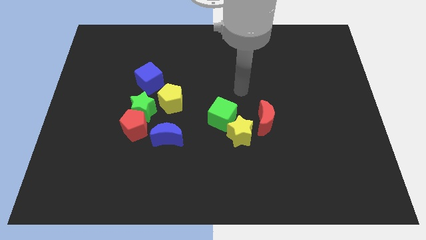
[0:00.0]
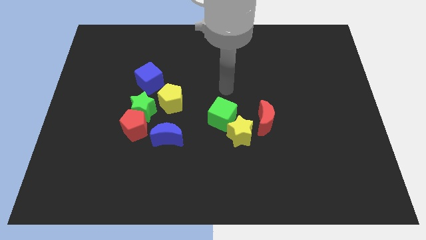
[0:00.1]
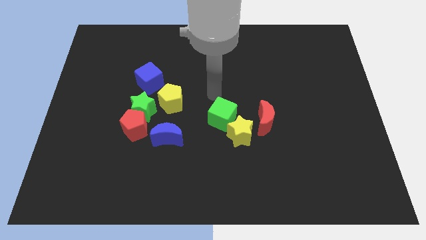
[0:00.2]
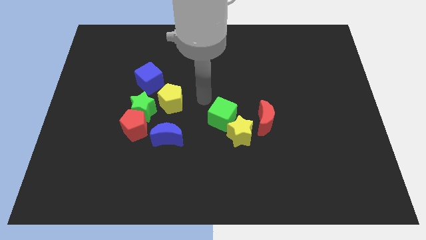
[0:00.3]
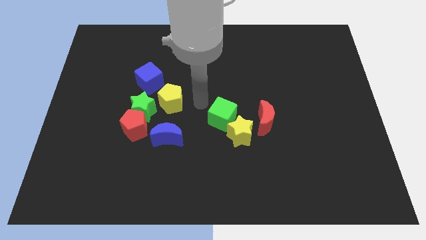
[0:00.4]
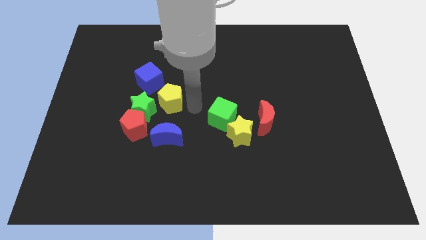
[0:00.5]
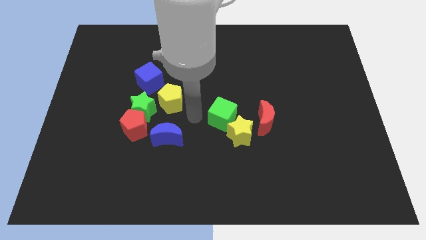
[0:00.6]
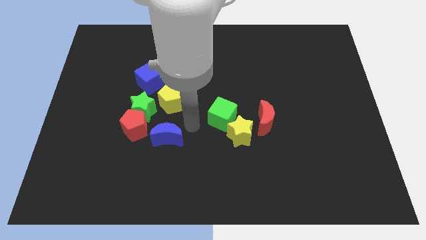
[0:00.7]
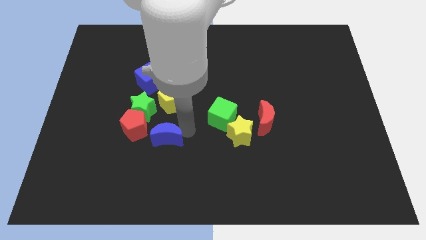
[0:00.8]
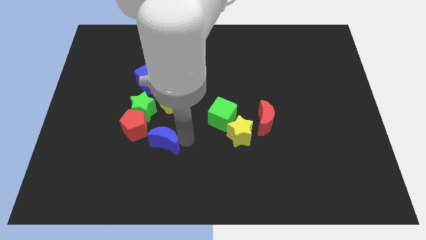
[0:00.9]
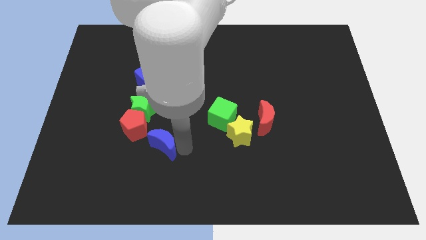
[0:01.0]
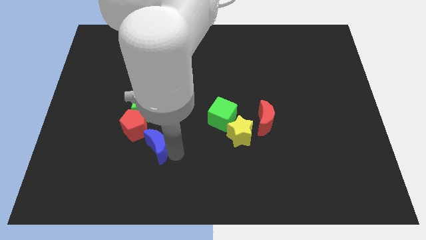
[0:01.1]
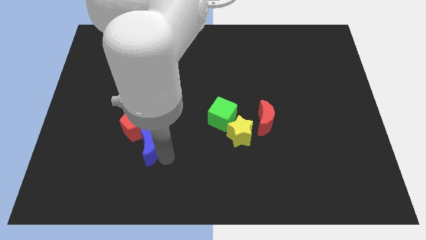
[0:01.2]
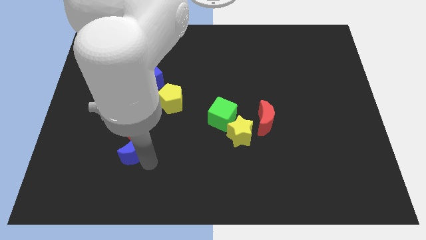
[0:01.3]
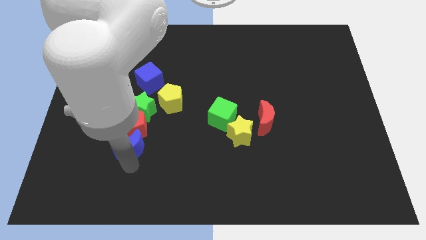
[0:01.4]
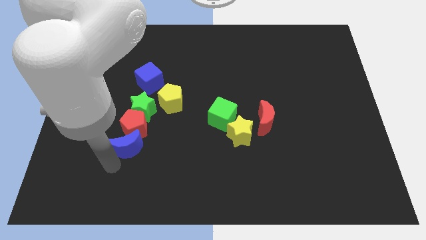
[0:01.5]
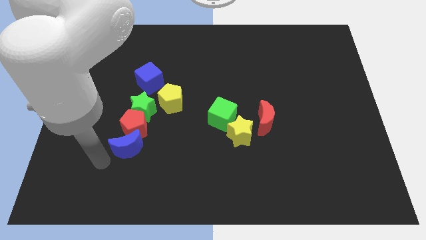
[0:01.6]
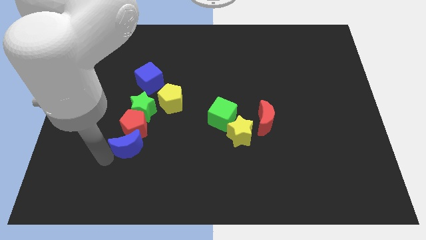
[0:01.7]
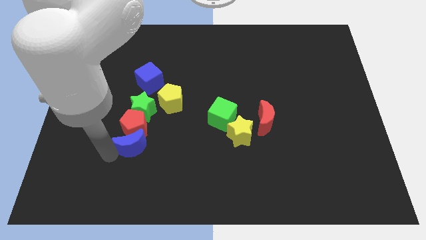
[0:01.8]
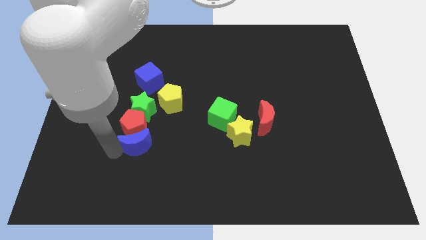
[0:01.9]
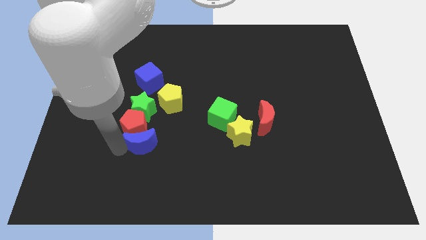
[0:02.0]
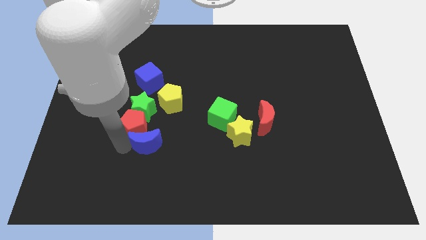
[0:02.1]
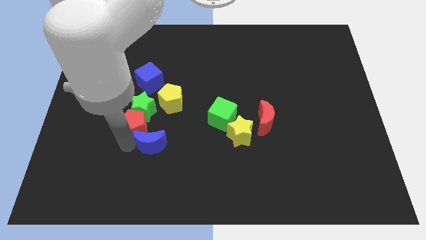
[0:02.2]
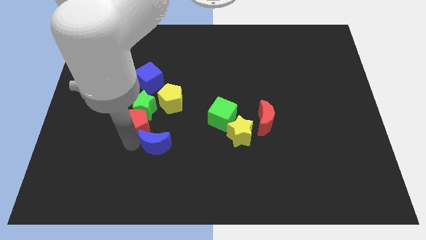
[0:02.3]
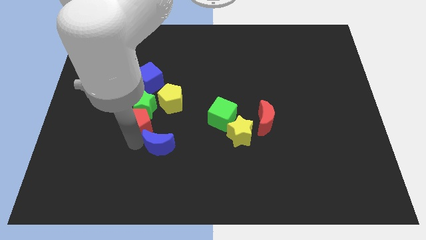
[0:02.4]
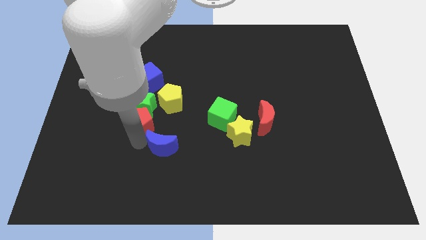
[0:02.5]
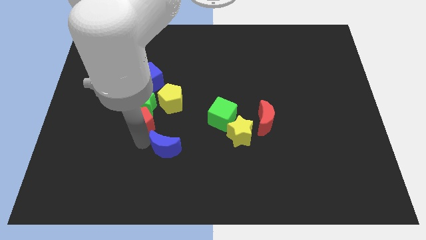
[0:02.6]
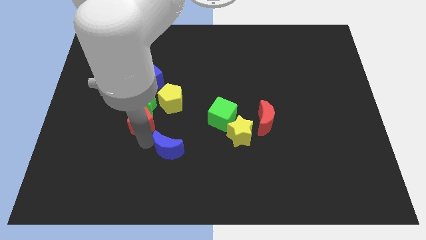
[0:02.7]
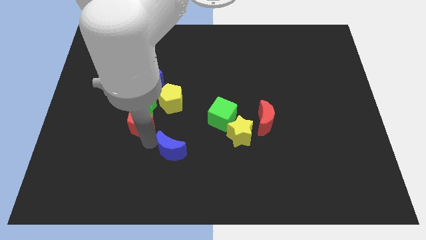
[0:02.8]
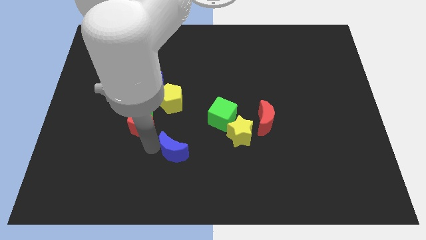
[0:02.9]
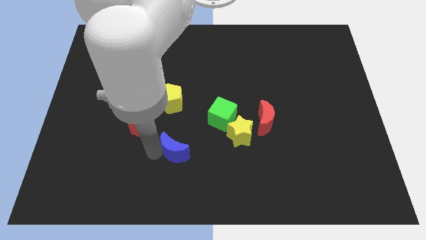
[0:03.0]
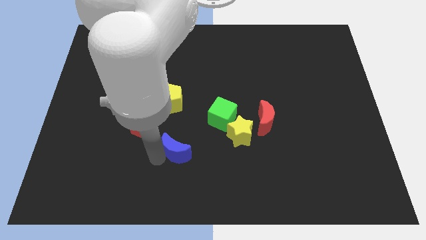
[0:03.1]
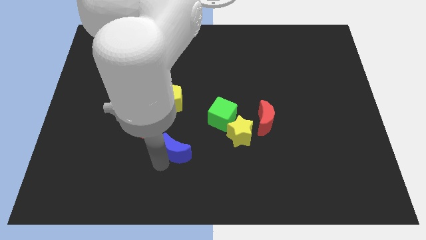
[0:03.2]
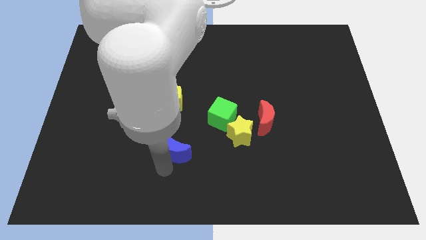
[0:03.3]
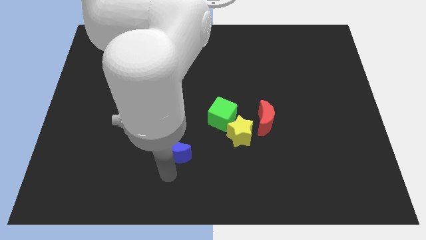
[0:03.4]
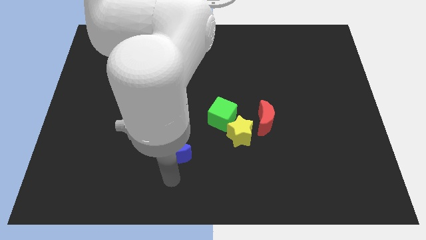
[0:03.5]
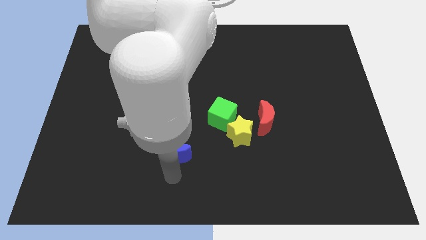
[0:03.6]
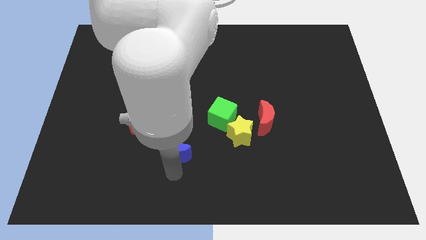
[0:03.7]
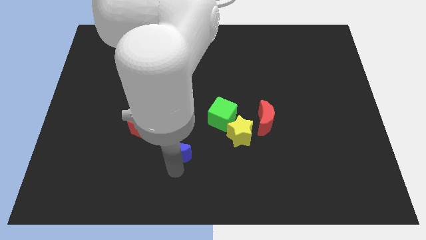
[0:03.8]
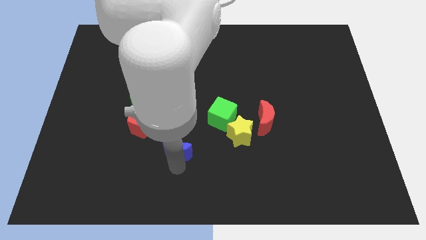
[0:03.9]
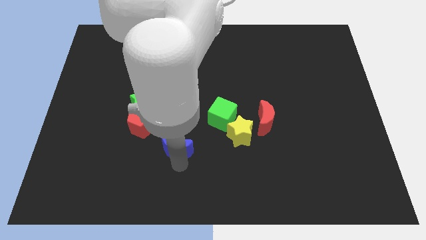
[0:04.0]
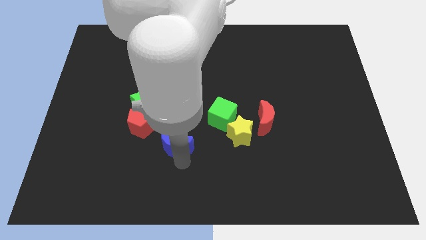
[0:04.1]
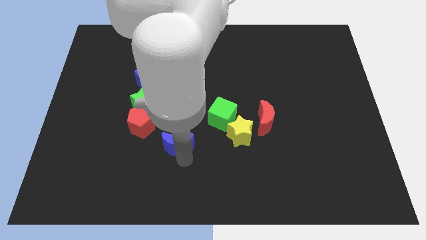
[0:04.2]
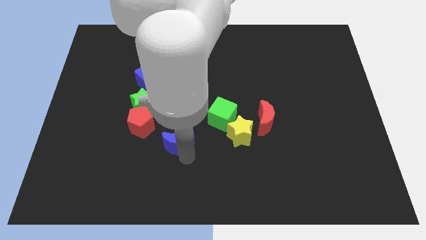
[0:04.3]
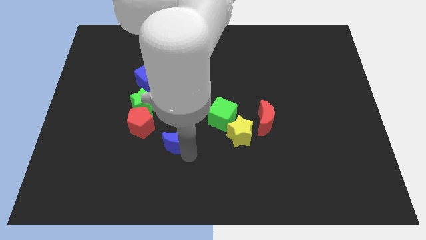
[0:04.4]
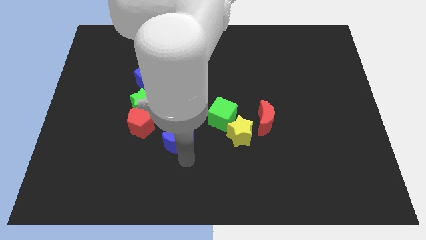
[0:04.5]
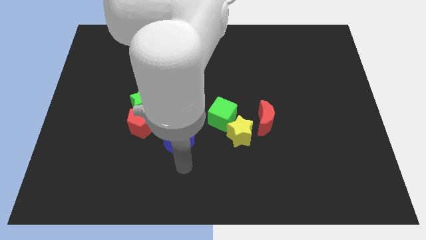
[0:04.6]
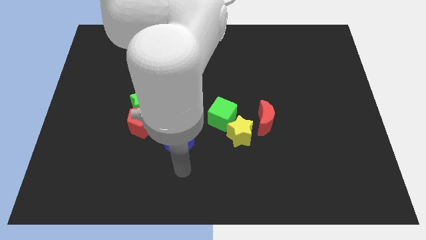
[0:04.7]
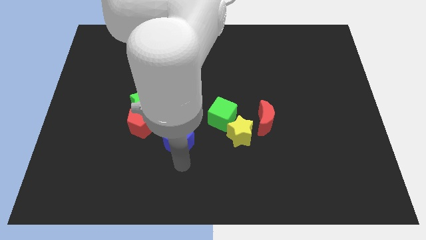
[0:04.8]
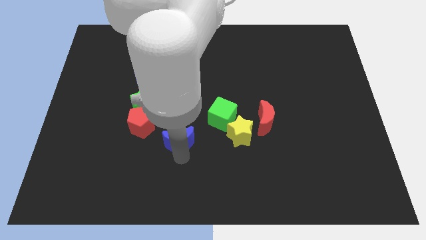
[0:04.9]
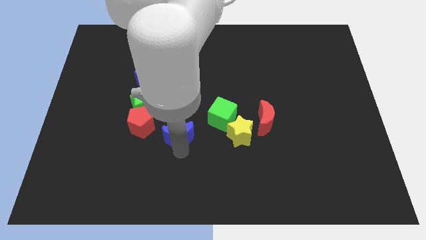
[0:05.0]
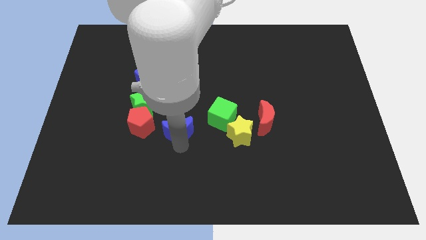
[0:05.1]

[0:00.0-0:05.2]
push the blue moon to the middle

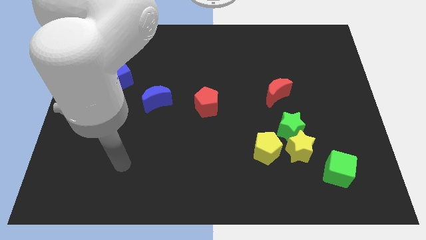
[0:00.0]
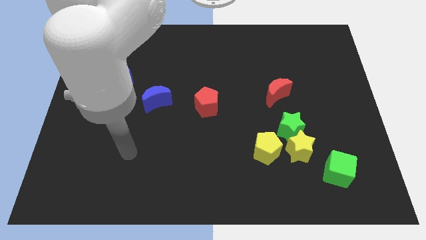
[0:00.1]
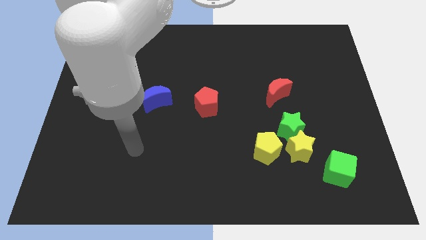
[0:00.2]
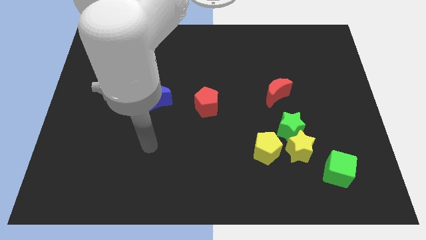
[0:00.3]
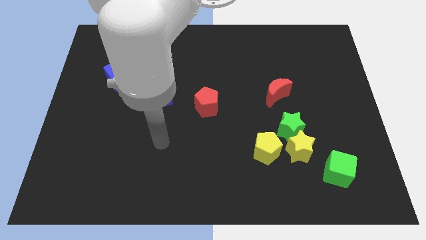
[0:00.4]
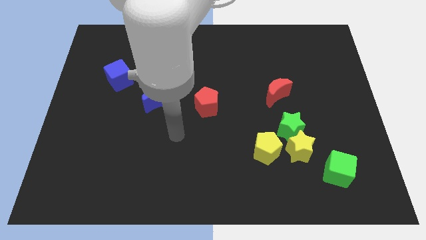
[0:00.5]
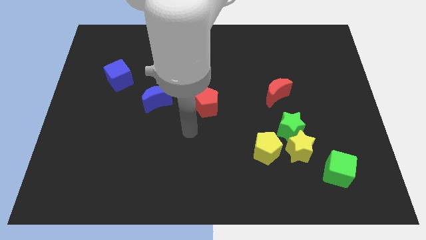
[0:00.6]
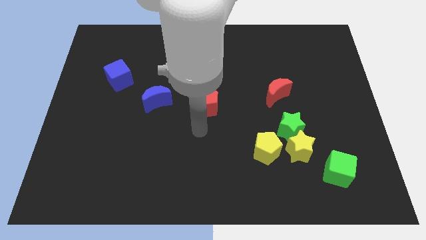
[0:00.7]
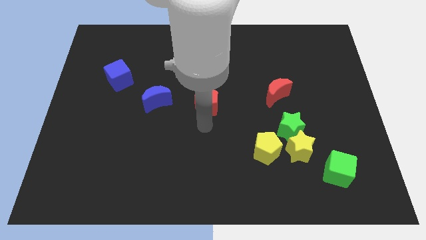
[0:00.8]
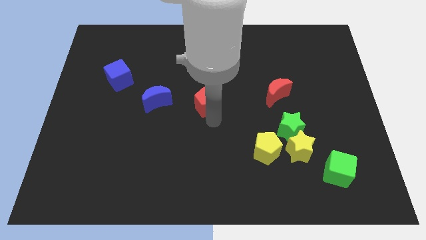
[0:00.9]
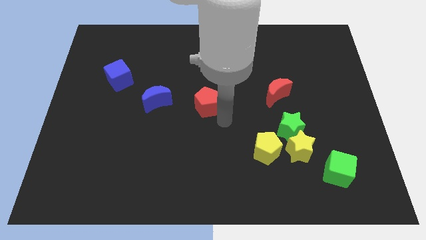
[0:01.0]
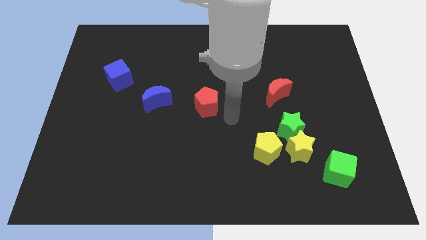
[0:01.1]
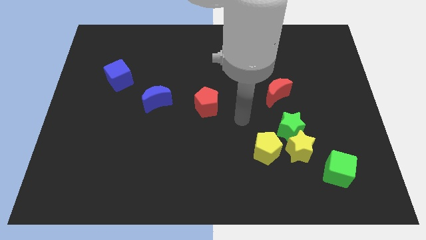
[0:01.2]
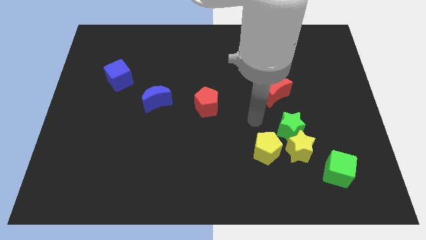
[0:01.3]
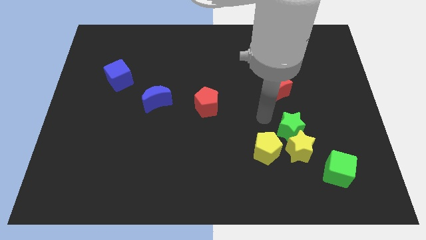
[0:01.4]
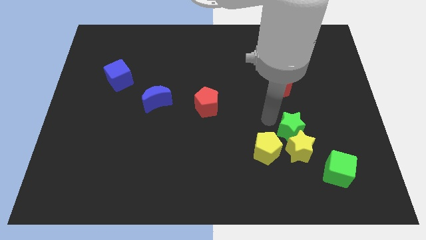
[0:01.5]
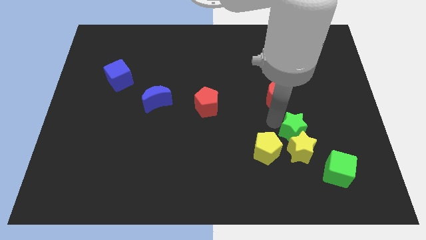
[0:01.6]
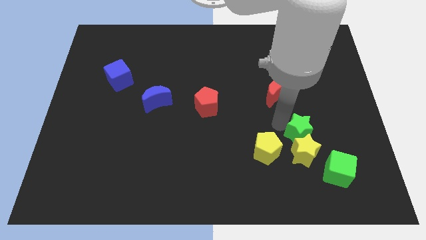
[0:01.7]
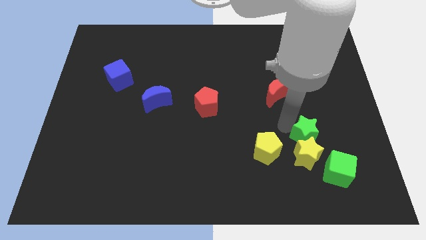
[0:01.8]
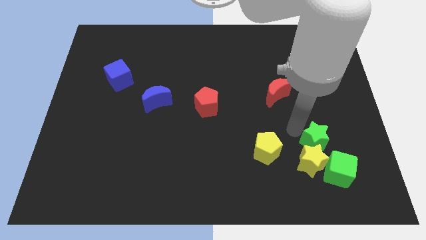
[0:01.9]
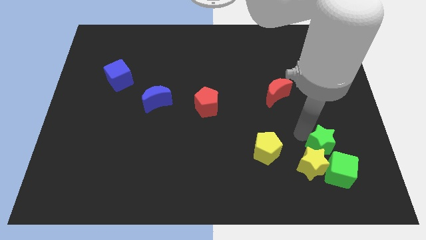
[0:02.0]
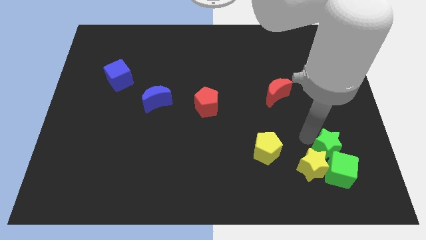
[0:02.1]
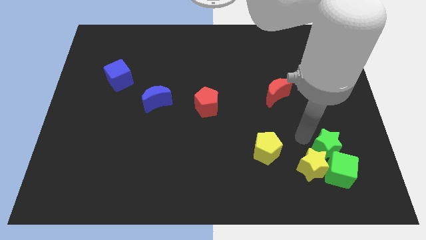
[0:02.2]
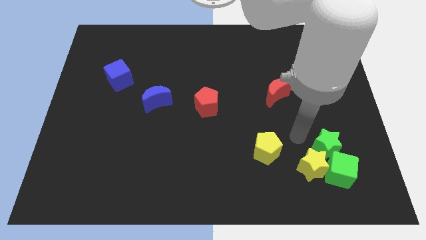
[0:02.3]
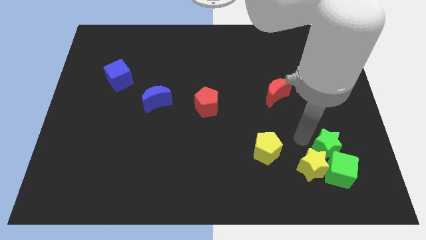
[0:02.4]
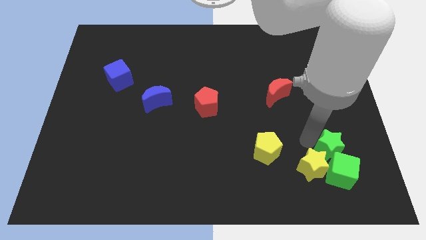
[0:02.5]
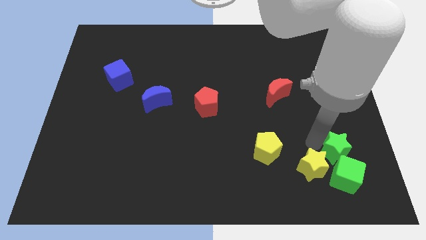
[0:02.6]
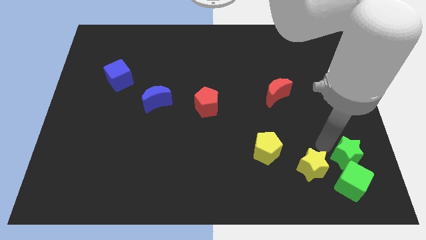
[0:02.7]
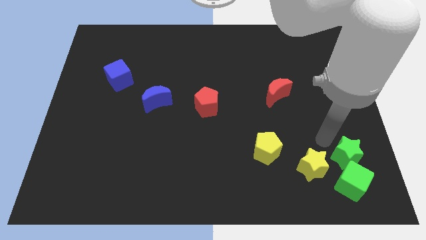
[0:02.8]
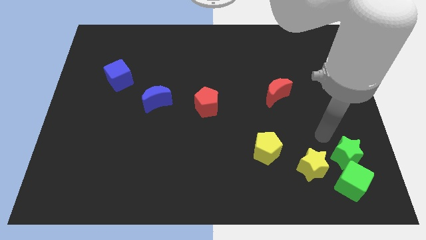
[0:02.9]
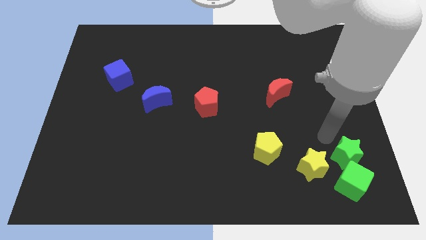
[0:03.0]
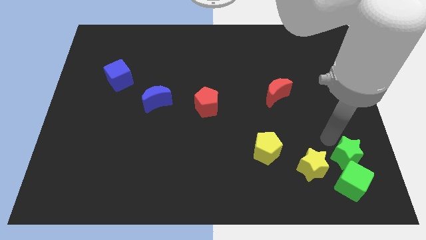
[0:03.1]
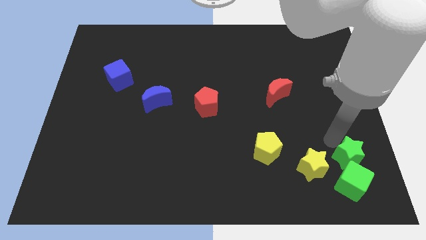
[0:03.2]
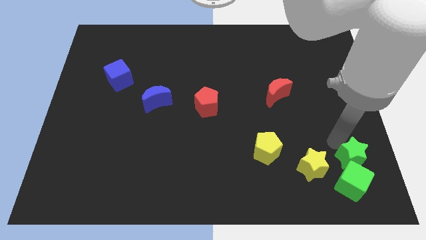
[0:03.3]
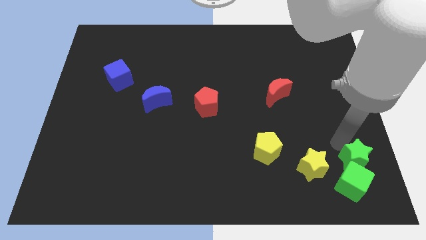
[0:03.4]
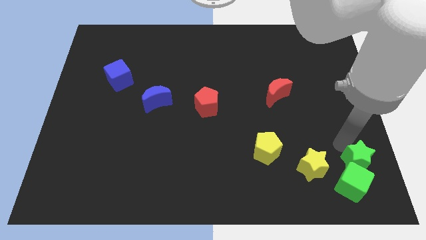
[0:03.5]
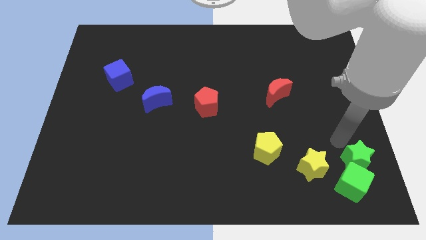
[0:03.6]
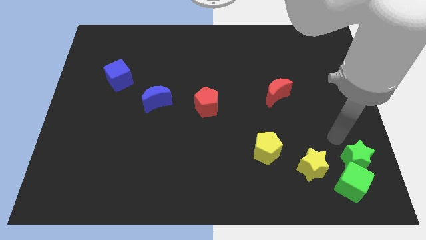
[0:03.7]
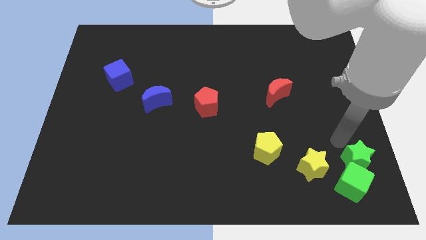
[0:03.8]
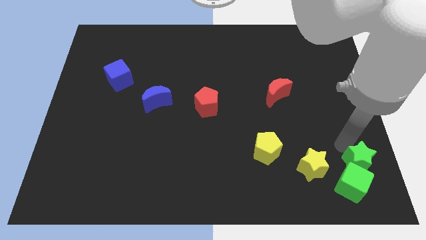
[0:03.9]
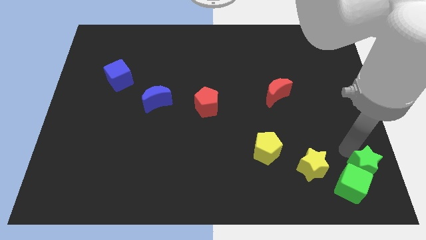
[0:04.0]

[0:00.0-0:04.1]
slide the green star to the lower right corner
